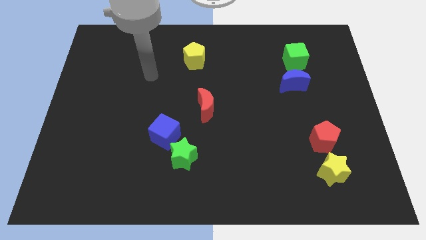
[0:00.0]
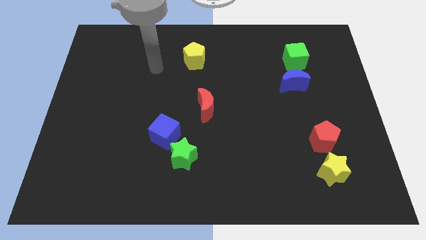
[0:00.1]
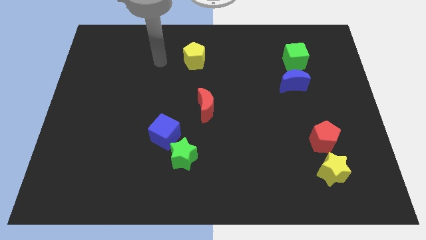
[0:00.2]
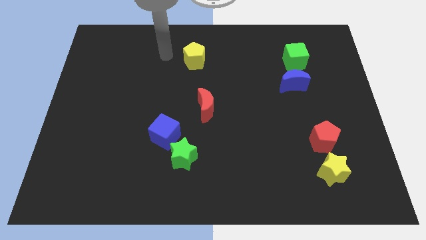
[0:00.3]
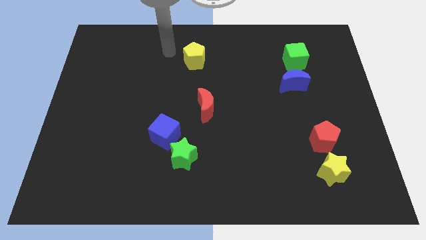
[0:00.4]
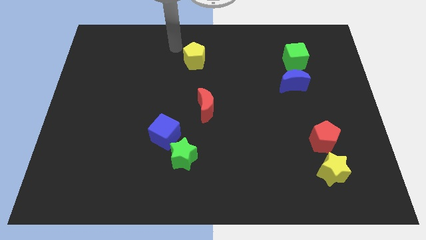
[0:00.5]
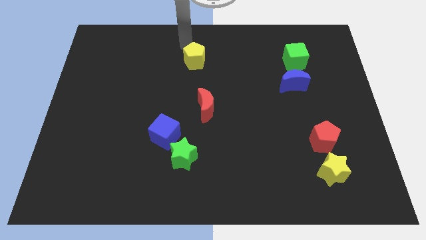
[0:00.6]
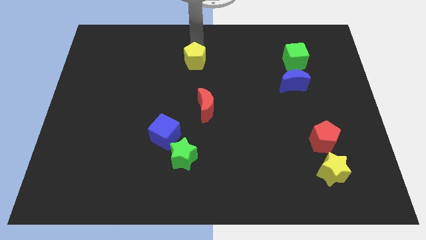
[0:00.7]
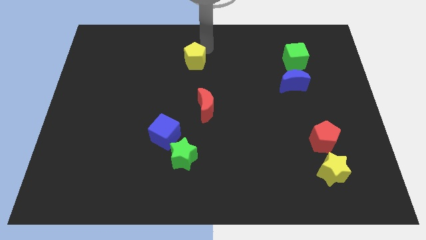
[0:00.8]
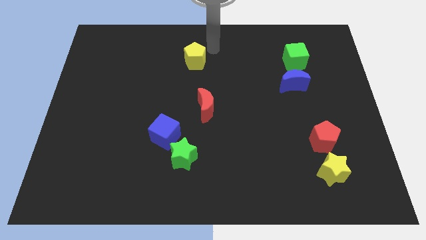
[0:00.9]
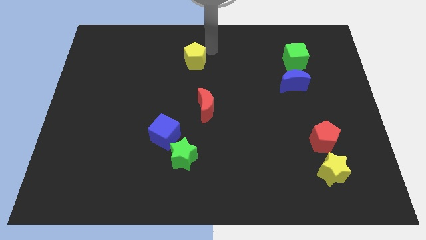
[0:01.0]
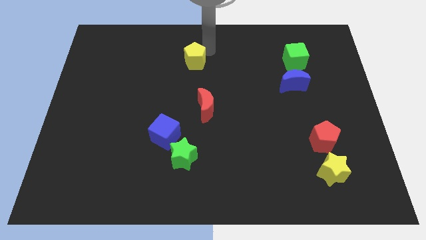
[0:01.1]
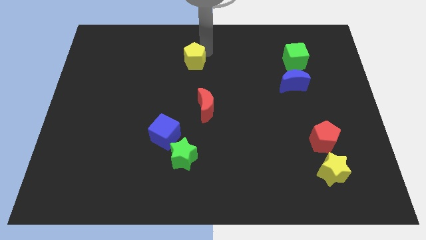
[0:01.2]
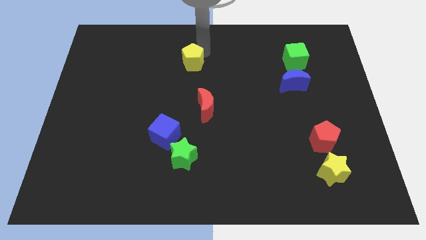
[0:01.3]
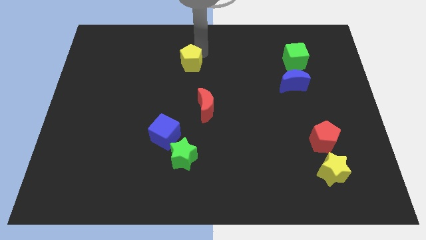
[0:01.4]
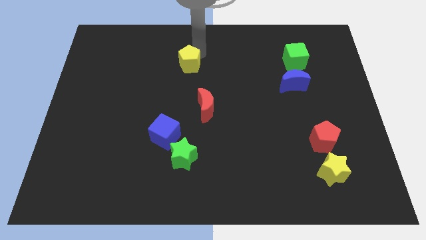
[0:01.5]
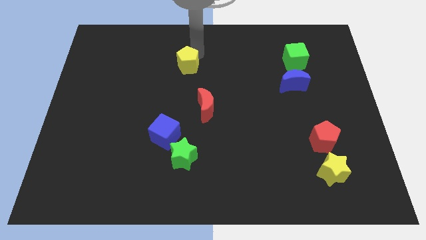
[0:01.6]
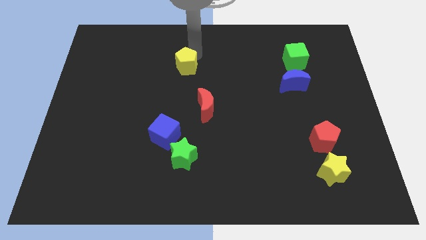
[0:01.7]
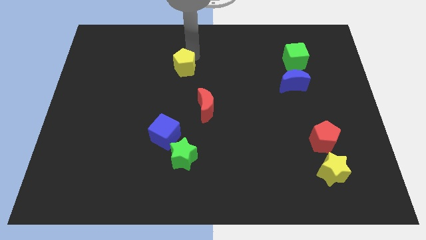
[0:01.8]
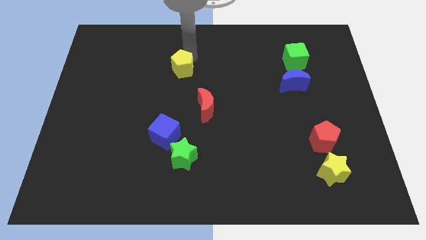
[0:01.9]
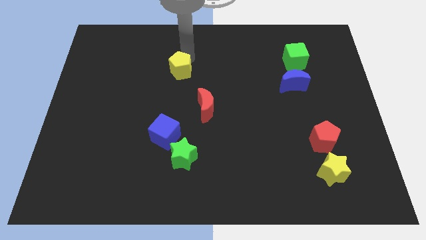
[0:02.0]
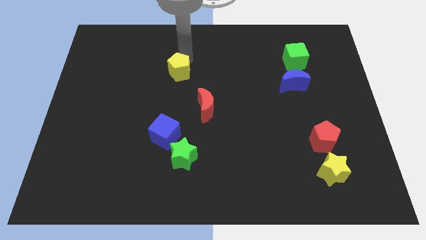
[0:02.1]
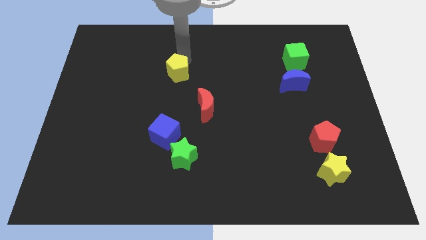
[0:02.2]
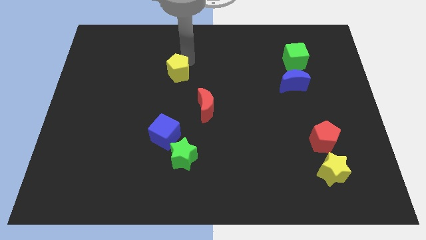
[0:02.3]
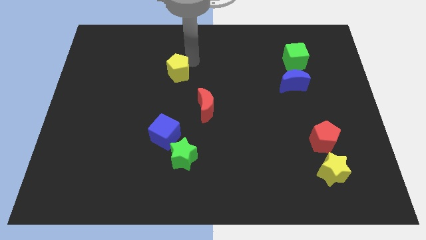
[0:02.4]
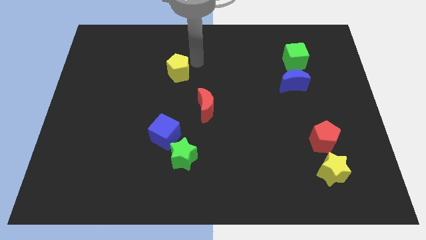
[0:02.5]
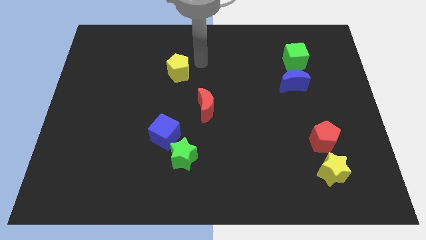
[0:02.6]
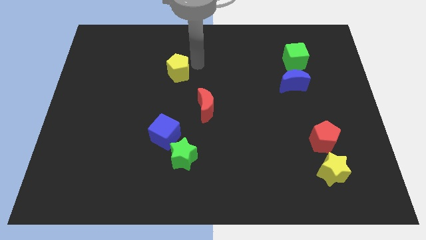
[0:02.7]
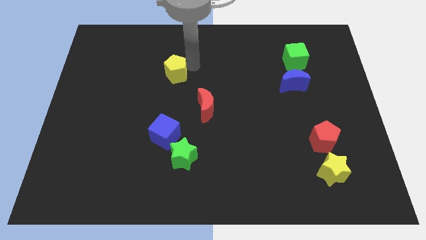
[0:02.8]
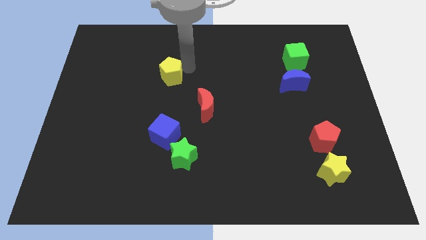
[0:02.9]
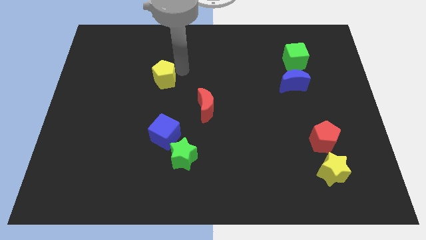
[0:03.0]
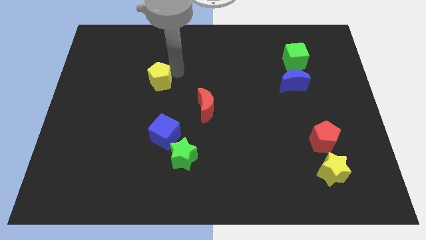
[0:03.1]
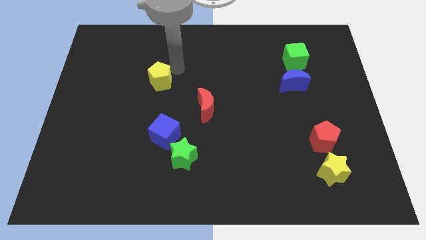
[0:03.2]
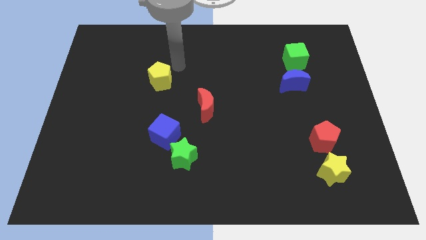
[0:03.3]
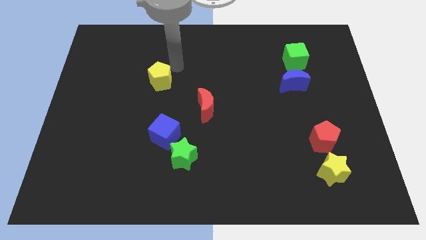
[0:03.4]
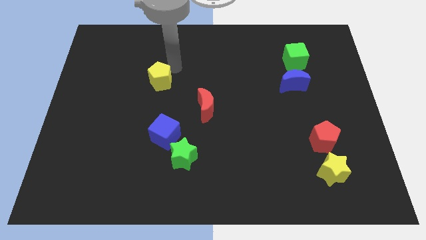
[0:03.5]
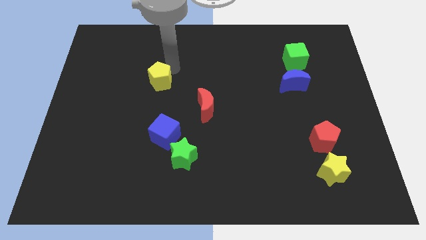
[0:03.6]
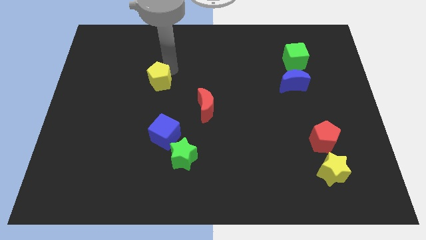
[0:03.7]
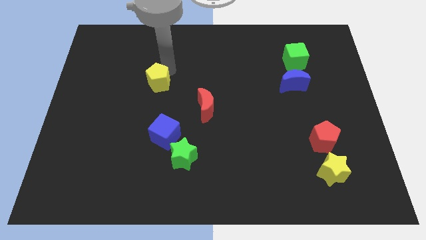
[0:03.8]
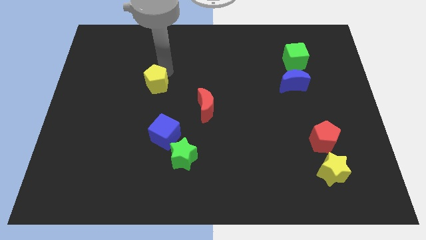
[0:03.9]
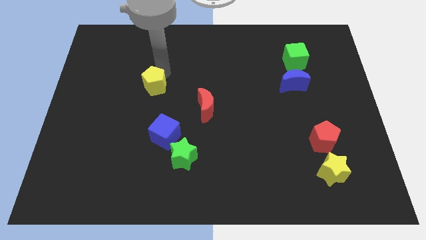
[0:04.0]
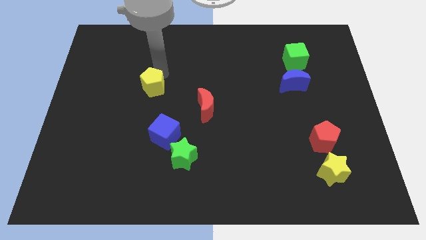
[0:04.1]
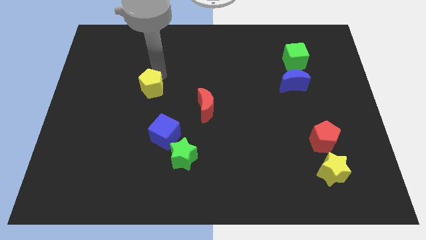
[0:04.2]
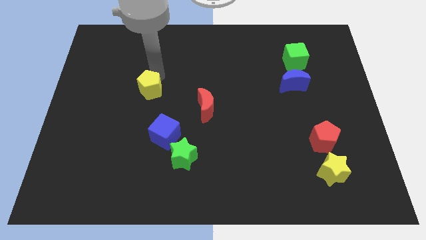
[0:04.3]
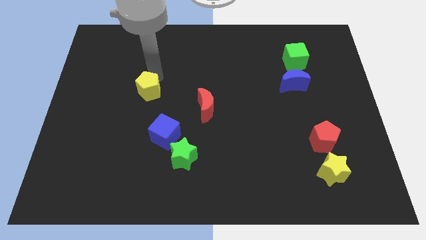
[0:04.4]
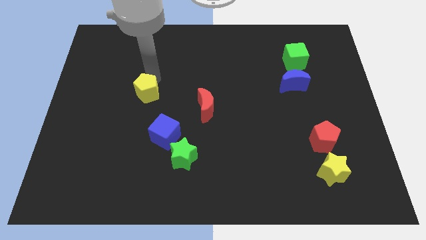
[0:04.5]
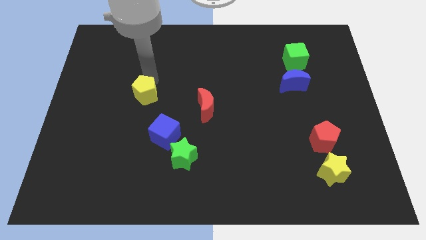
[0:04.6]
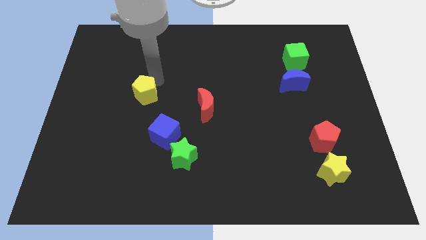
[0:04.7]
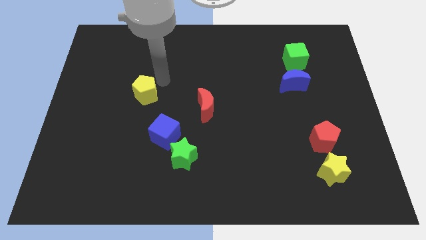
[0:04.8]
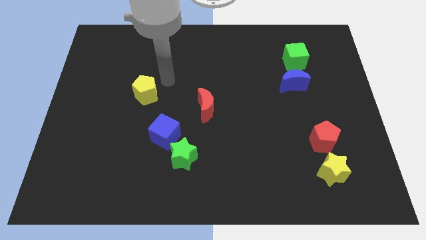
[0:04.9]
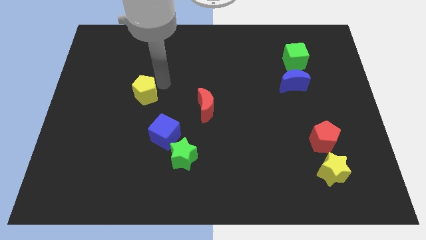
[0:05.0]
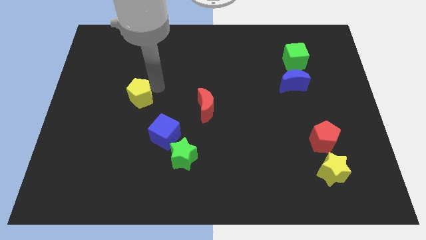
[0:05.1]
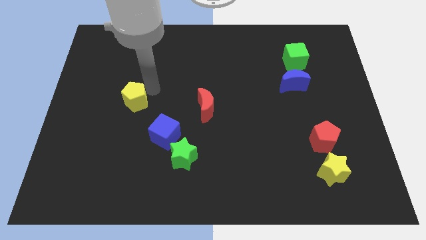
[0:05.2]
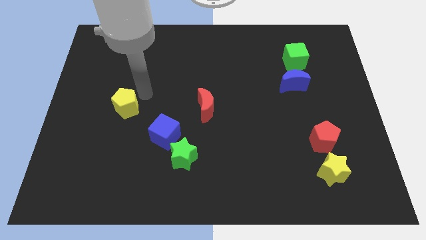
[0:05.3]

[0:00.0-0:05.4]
push the yellow pentagon downwards and to the left diagonally

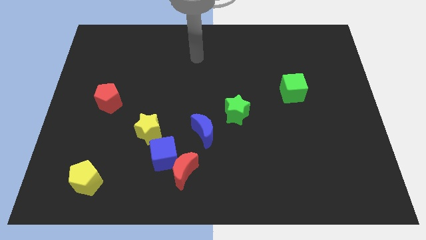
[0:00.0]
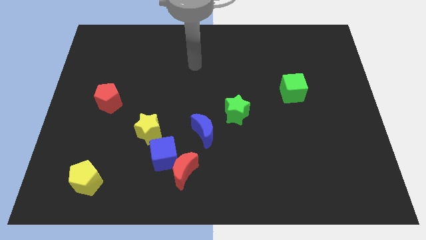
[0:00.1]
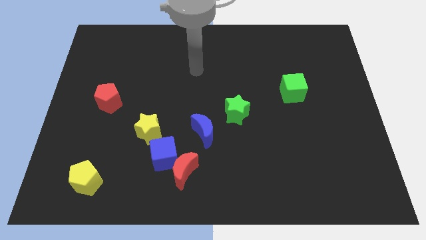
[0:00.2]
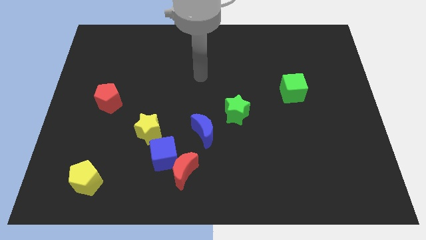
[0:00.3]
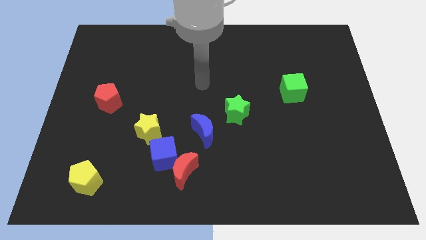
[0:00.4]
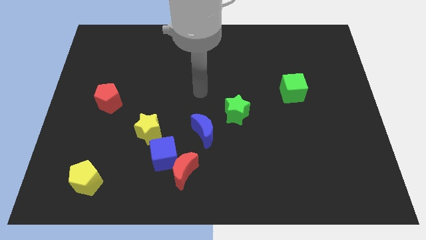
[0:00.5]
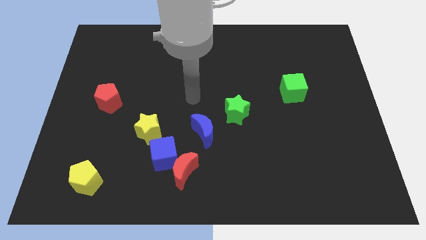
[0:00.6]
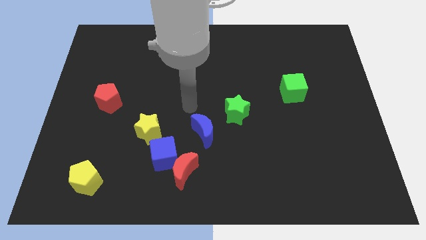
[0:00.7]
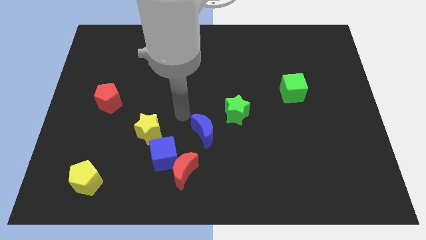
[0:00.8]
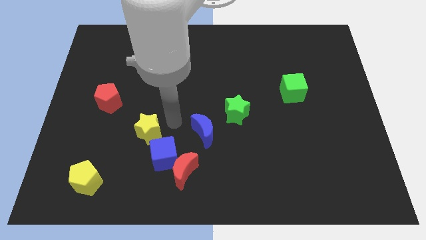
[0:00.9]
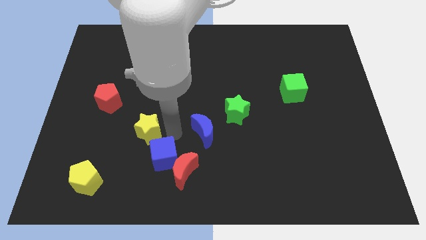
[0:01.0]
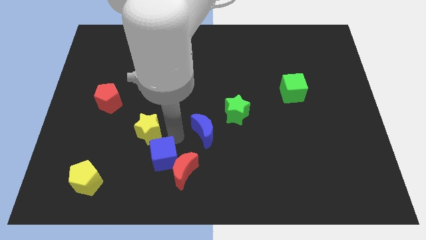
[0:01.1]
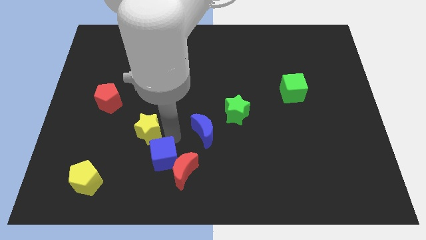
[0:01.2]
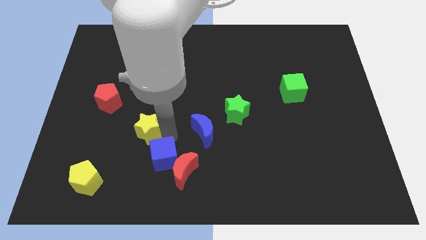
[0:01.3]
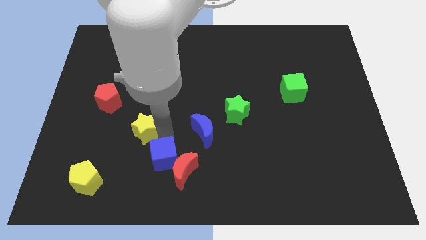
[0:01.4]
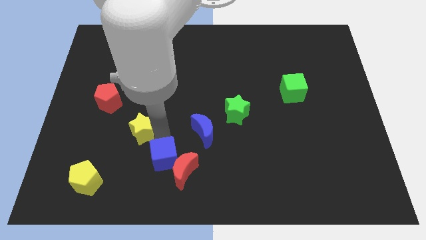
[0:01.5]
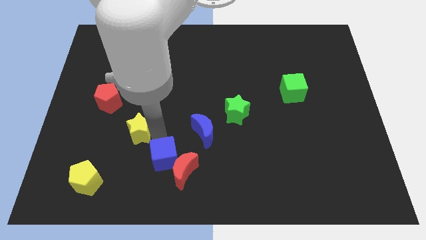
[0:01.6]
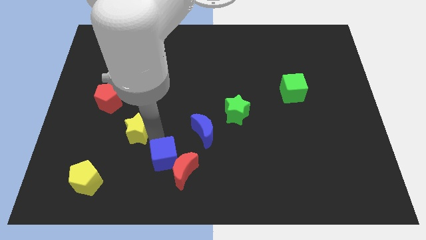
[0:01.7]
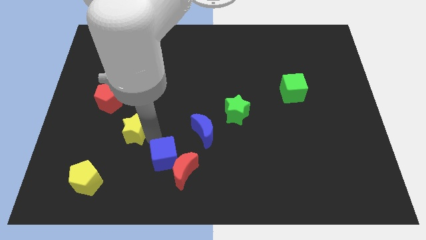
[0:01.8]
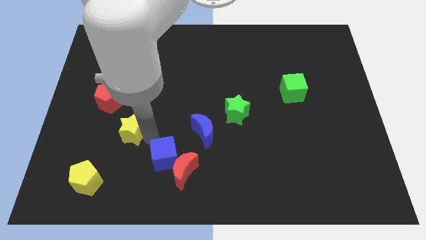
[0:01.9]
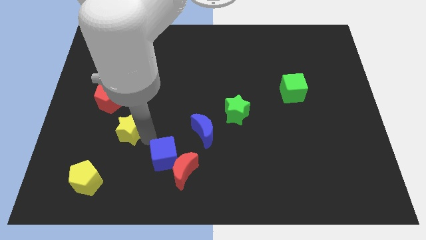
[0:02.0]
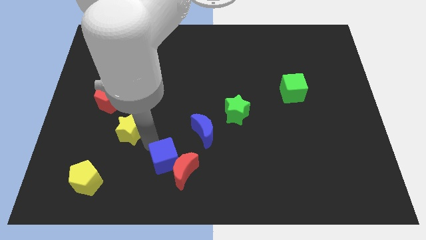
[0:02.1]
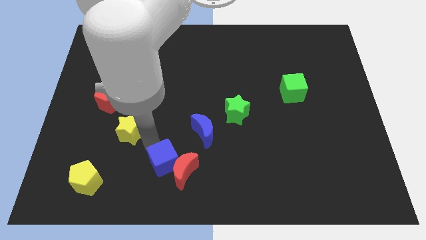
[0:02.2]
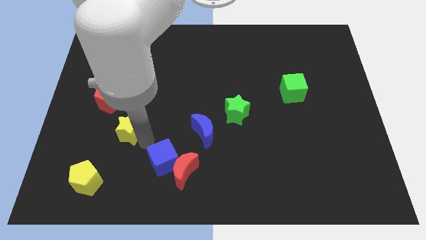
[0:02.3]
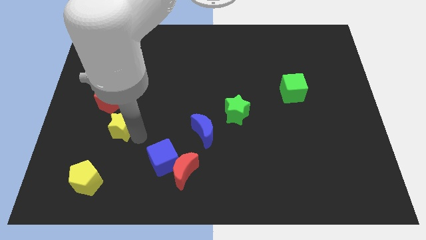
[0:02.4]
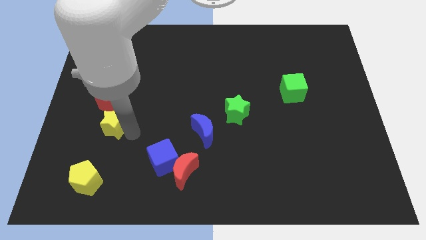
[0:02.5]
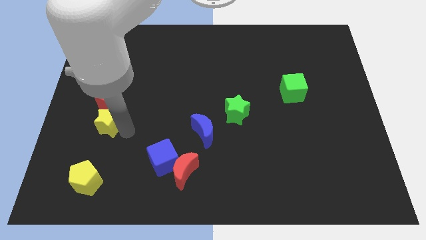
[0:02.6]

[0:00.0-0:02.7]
slide the yellow star somewhat upwards and to the left

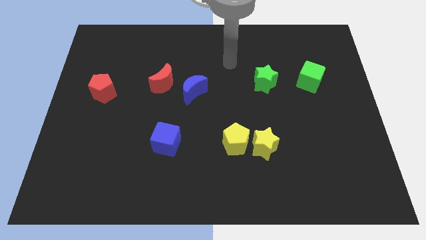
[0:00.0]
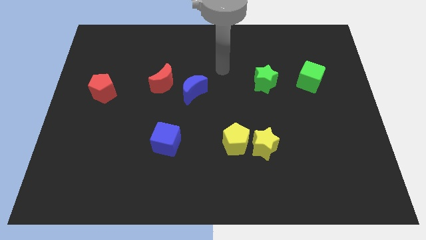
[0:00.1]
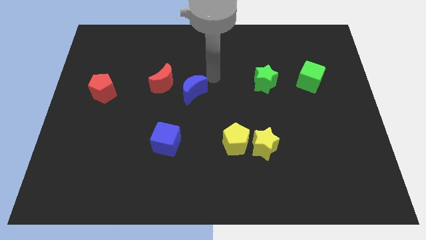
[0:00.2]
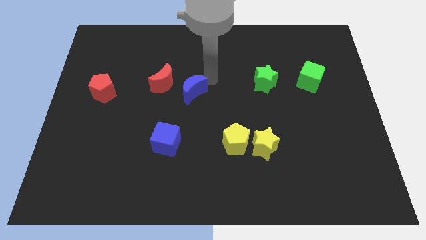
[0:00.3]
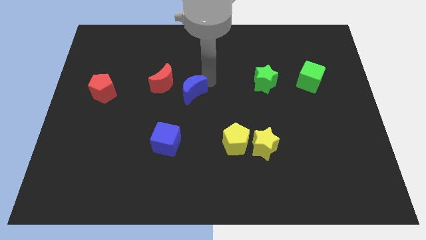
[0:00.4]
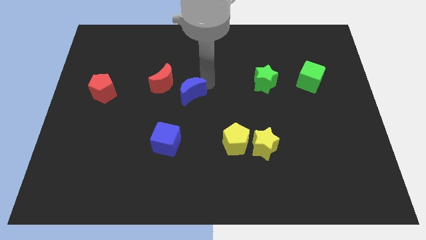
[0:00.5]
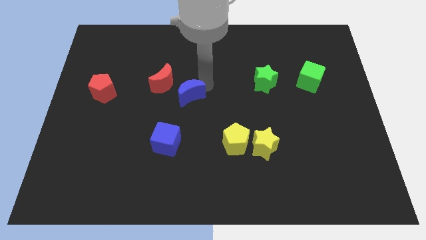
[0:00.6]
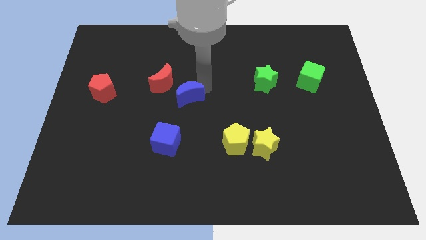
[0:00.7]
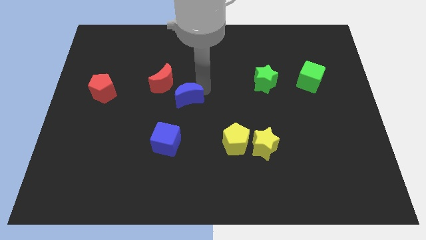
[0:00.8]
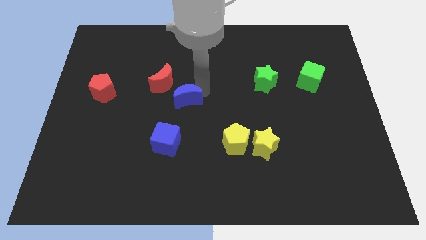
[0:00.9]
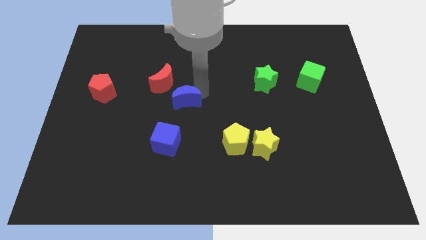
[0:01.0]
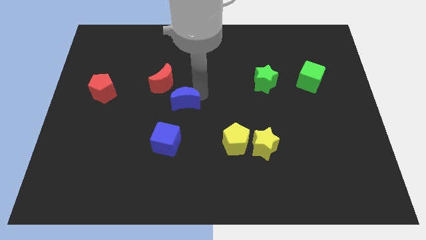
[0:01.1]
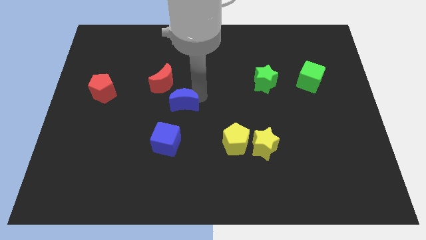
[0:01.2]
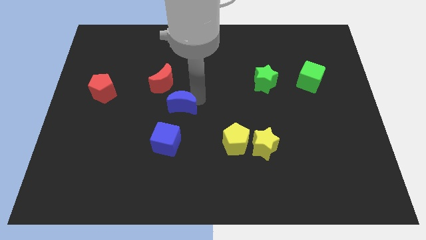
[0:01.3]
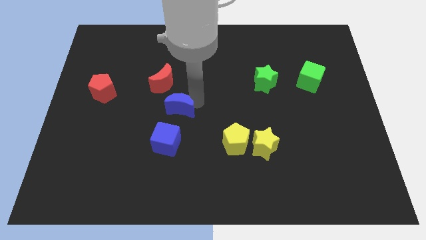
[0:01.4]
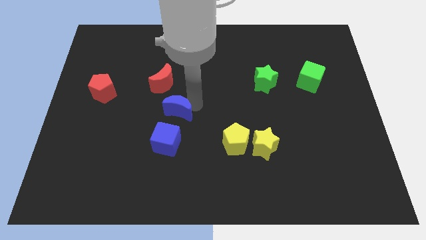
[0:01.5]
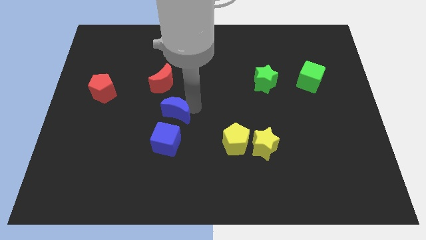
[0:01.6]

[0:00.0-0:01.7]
push the blue moon somewhat diagonally down and left
